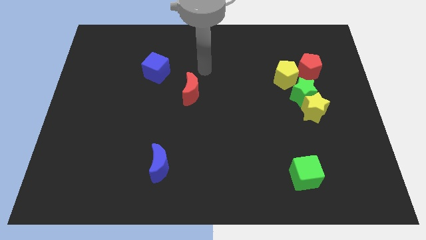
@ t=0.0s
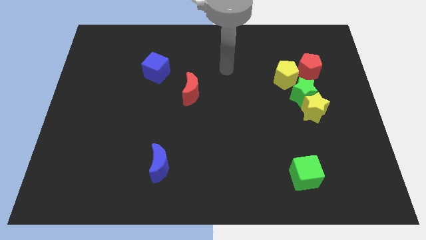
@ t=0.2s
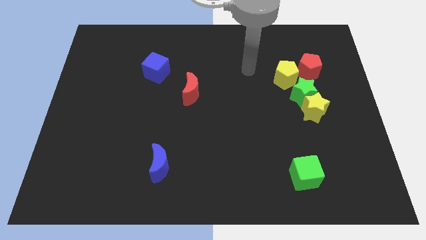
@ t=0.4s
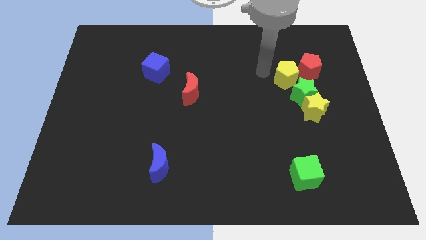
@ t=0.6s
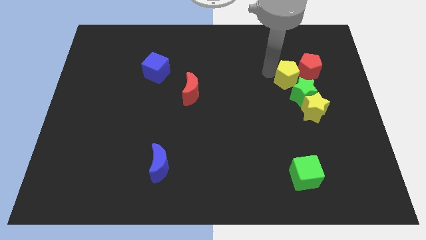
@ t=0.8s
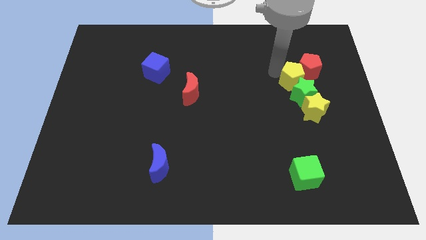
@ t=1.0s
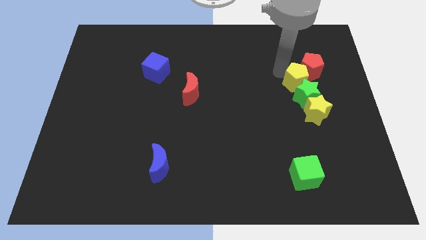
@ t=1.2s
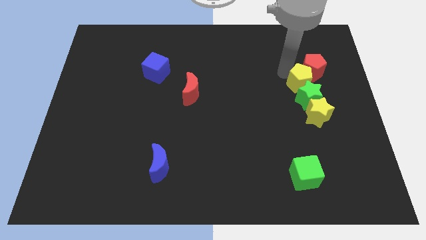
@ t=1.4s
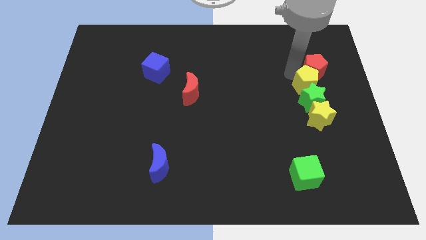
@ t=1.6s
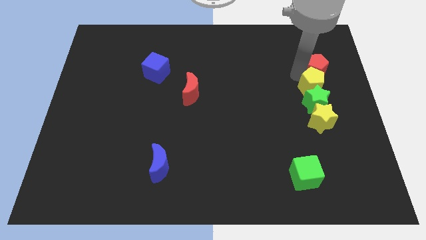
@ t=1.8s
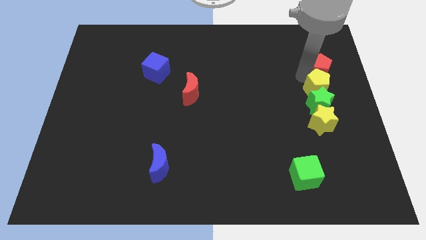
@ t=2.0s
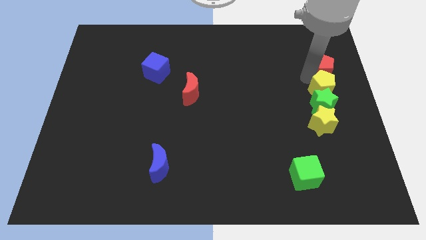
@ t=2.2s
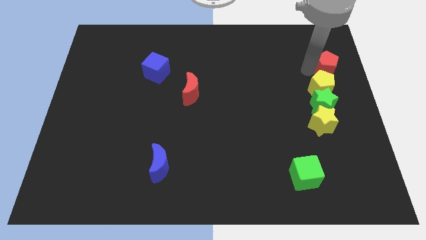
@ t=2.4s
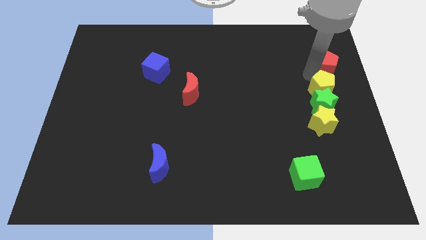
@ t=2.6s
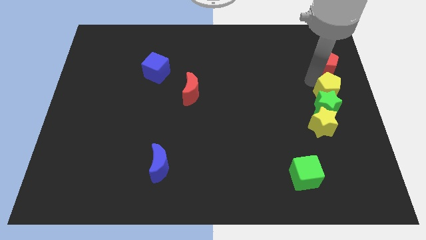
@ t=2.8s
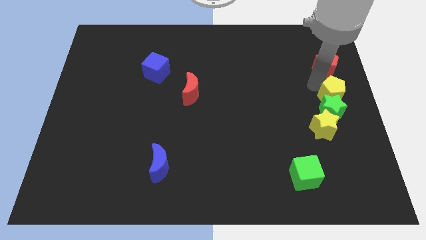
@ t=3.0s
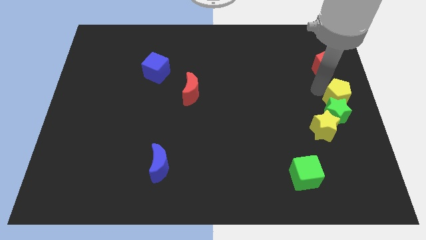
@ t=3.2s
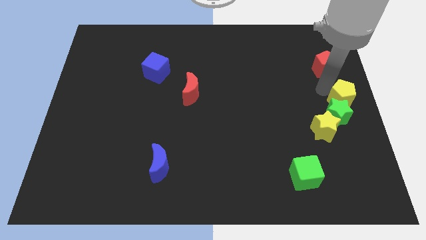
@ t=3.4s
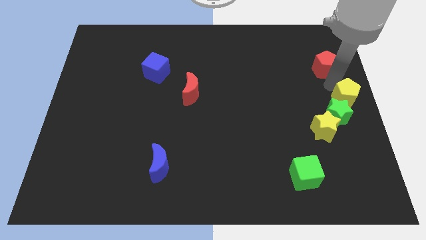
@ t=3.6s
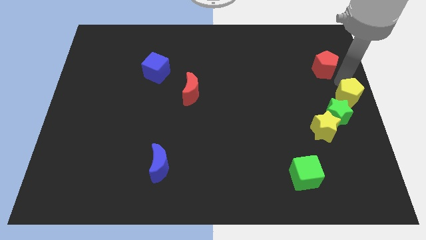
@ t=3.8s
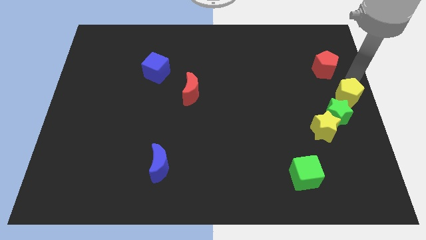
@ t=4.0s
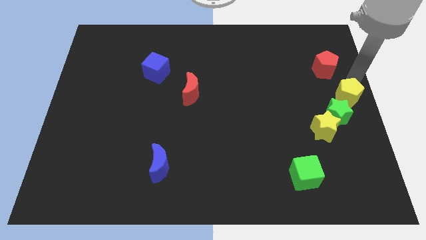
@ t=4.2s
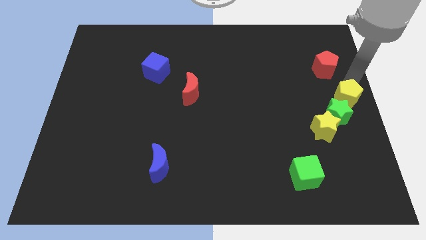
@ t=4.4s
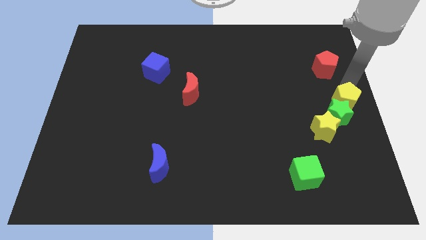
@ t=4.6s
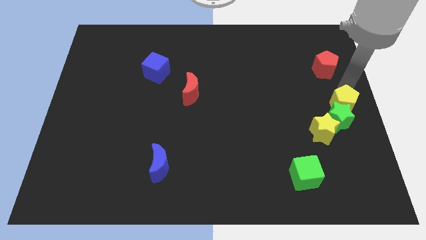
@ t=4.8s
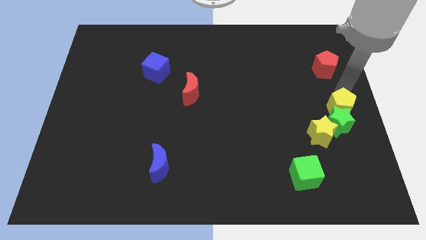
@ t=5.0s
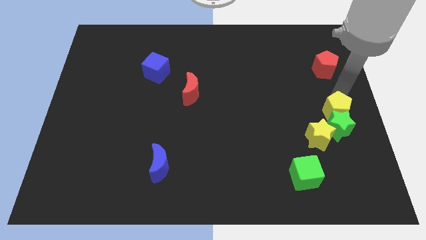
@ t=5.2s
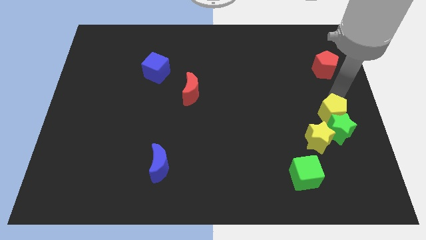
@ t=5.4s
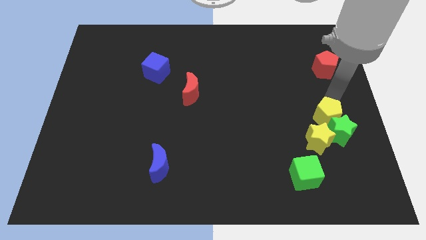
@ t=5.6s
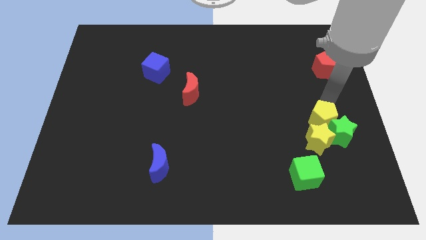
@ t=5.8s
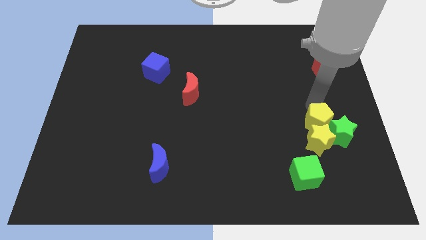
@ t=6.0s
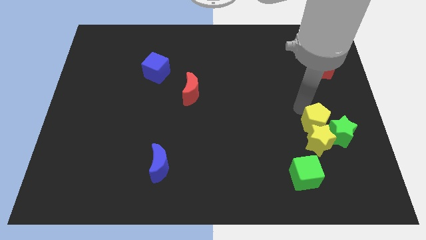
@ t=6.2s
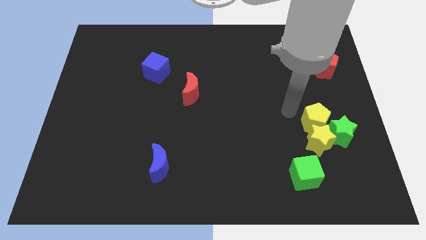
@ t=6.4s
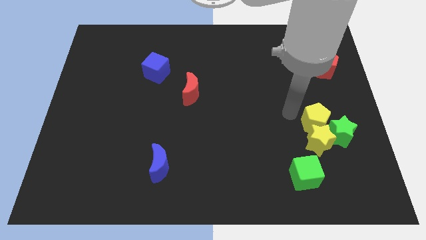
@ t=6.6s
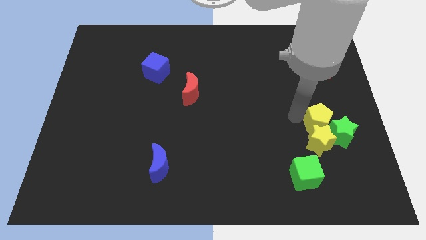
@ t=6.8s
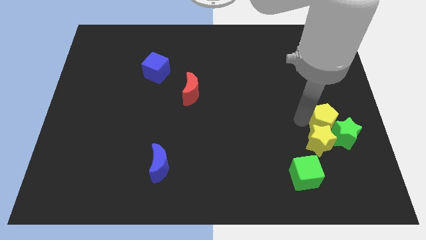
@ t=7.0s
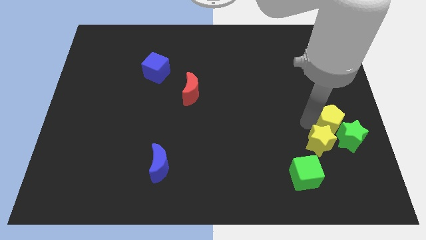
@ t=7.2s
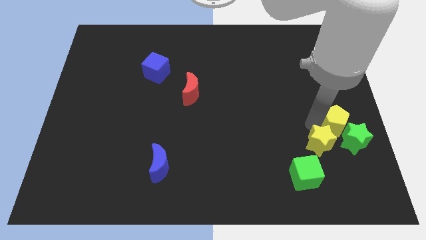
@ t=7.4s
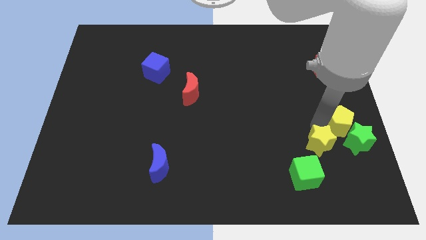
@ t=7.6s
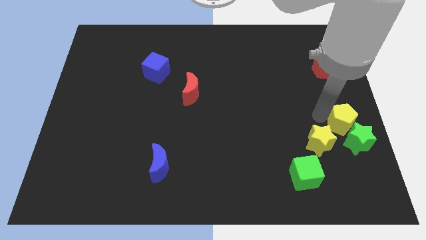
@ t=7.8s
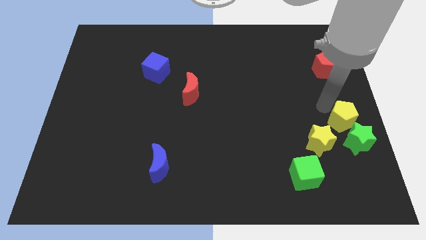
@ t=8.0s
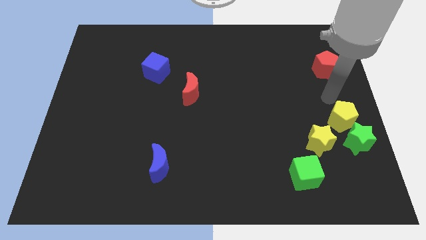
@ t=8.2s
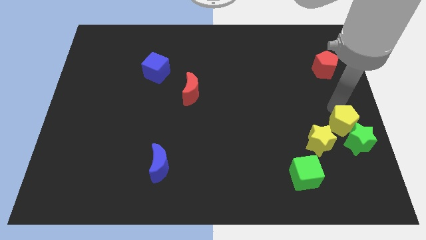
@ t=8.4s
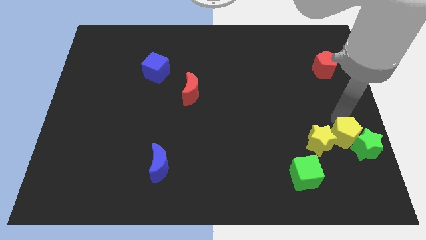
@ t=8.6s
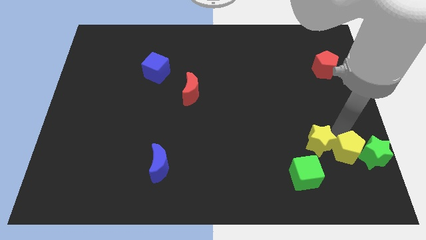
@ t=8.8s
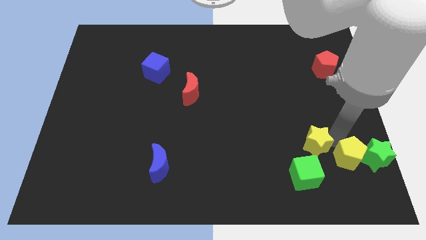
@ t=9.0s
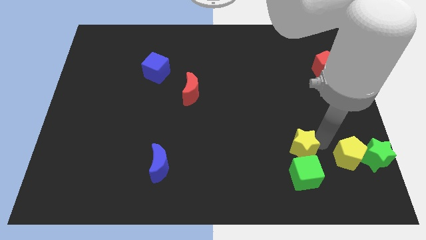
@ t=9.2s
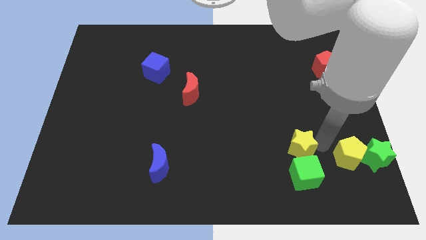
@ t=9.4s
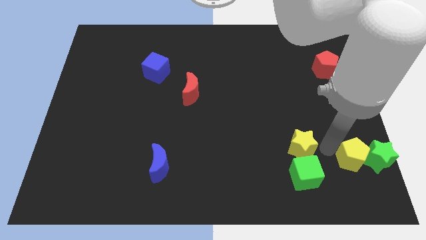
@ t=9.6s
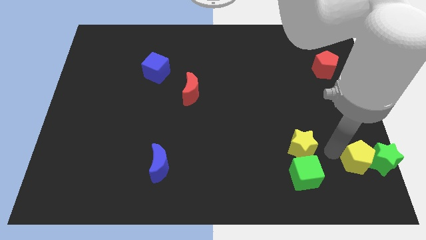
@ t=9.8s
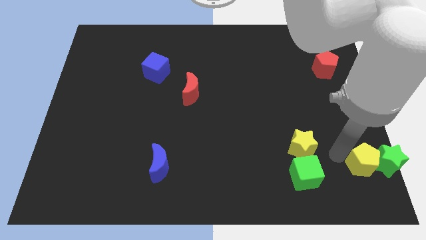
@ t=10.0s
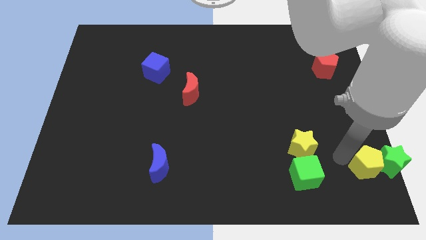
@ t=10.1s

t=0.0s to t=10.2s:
move the yellow pentagon to the lower right corner

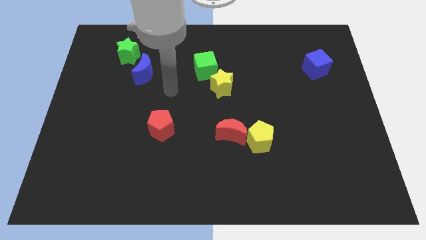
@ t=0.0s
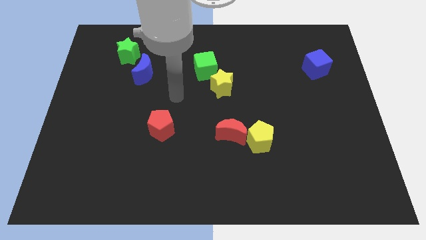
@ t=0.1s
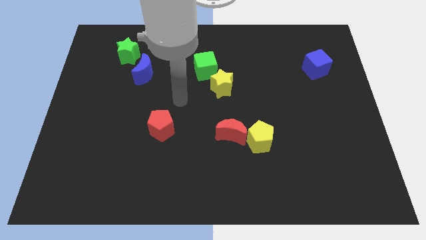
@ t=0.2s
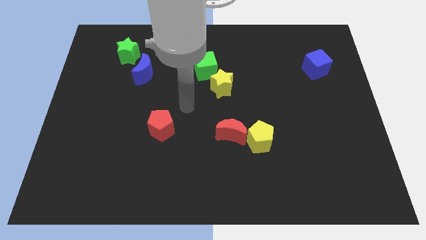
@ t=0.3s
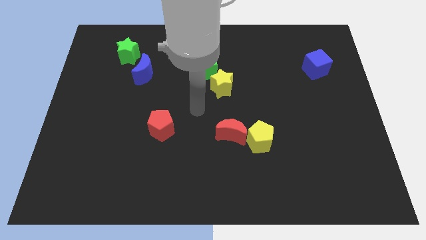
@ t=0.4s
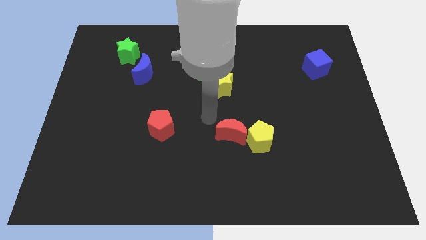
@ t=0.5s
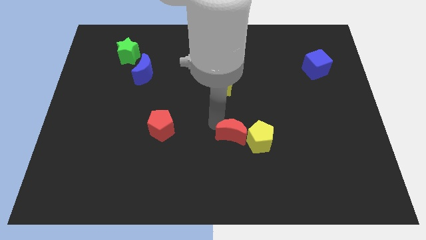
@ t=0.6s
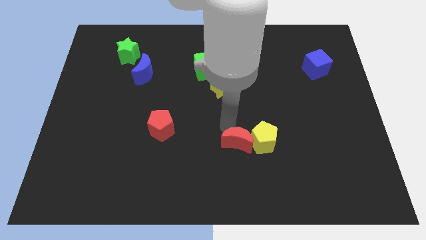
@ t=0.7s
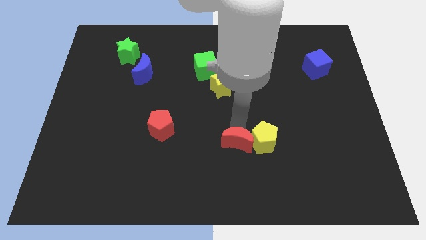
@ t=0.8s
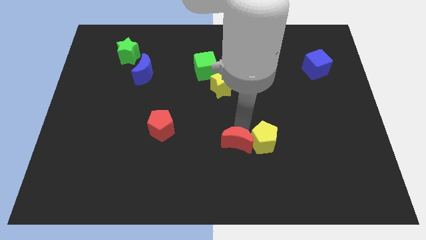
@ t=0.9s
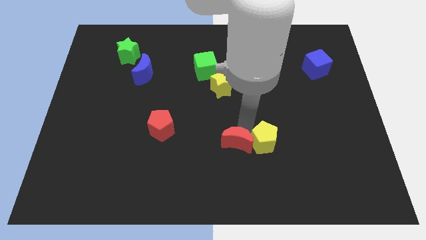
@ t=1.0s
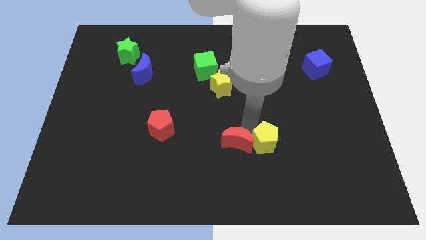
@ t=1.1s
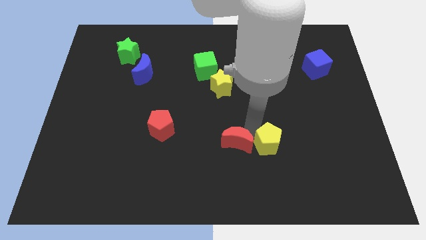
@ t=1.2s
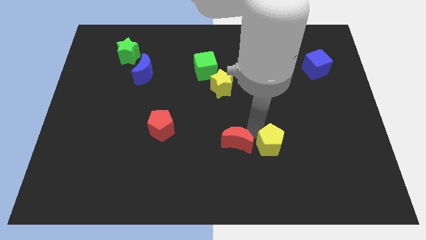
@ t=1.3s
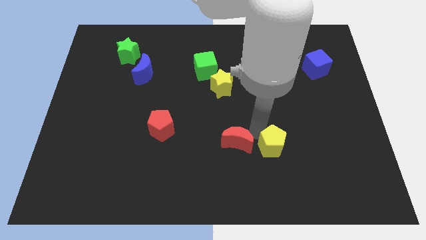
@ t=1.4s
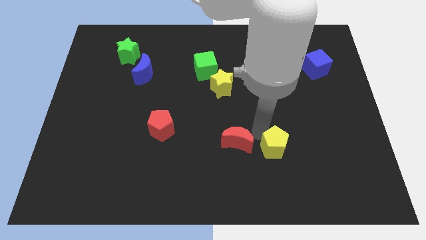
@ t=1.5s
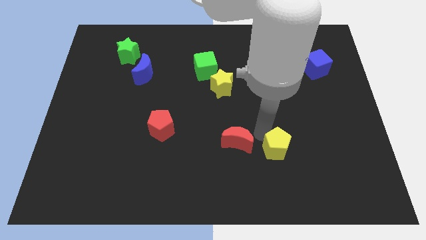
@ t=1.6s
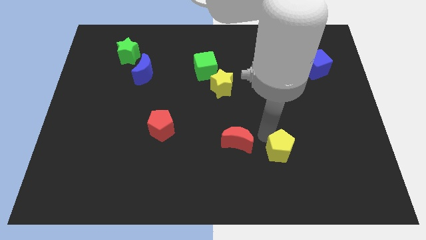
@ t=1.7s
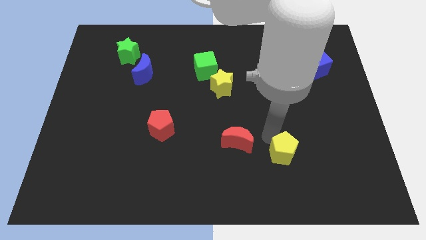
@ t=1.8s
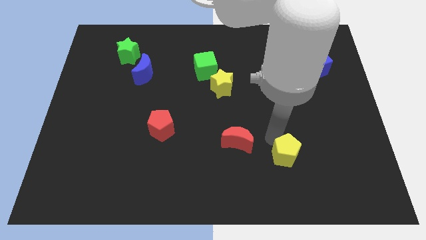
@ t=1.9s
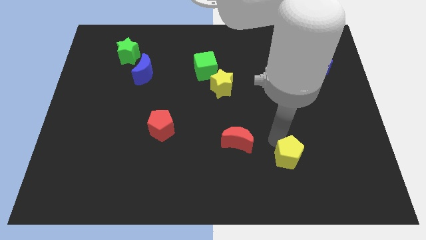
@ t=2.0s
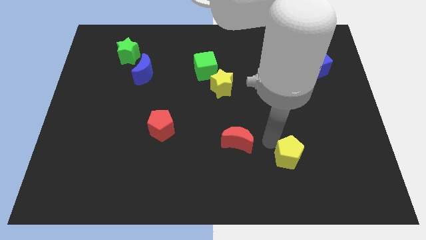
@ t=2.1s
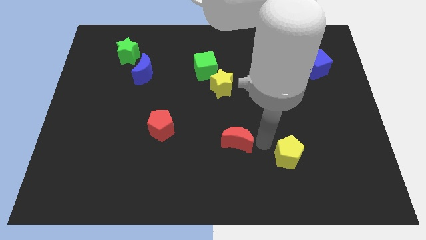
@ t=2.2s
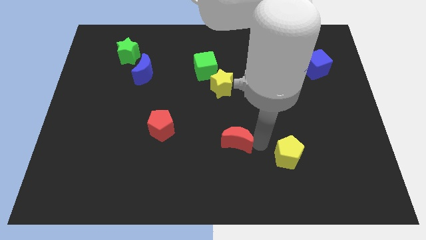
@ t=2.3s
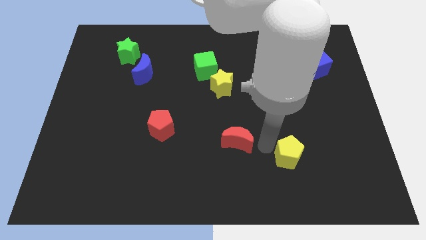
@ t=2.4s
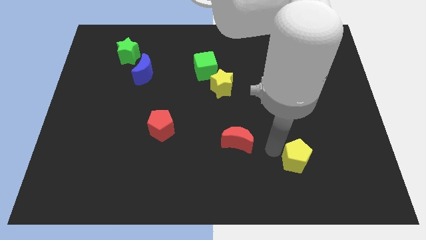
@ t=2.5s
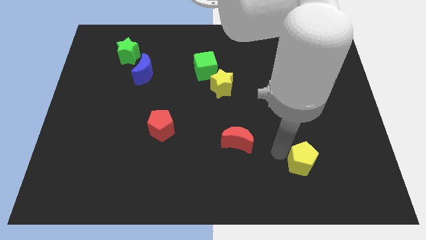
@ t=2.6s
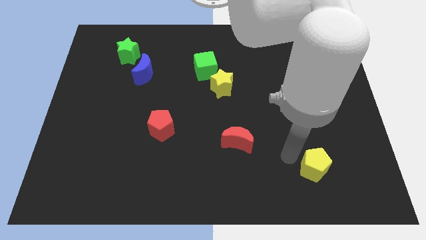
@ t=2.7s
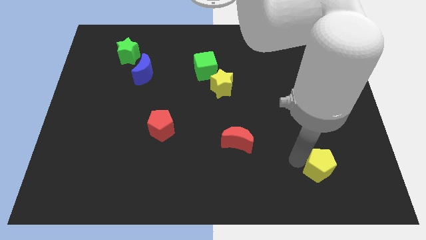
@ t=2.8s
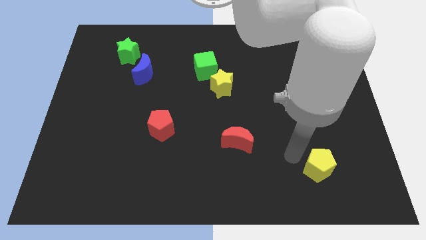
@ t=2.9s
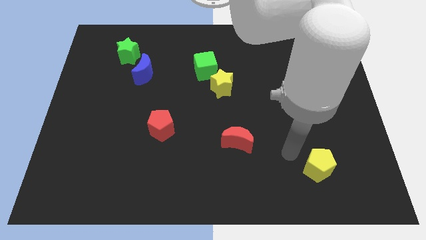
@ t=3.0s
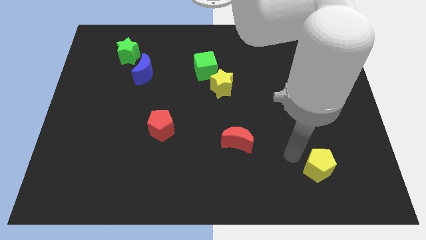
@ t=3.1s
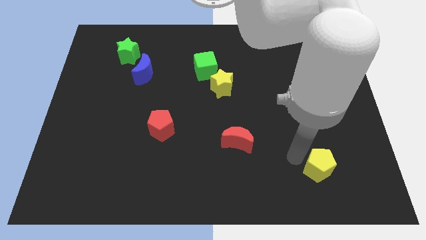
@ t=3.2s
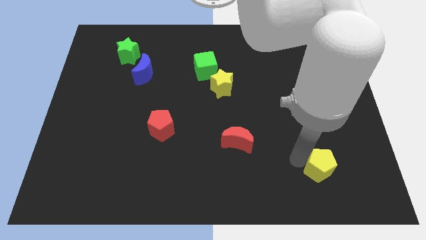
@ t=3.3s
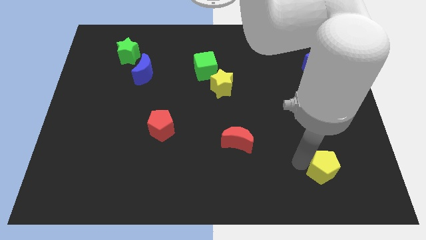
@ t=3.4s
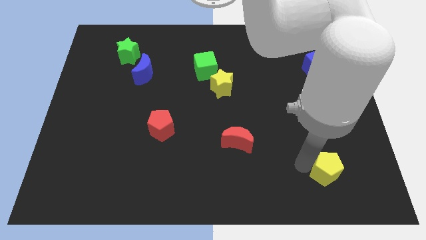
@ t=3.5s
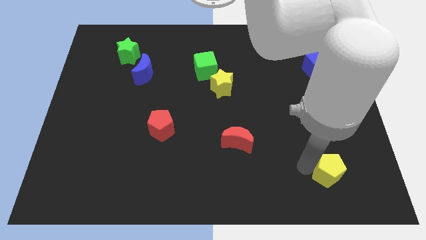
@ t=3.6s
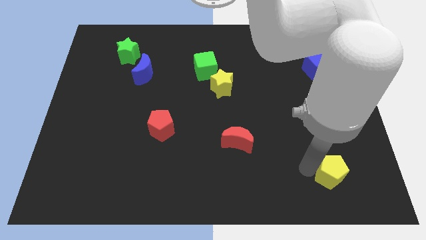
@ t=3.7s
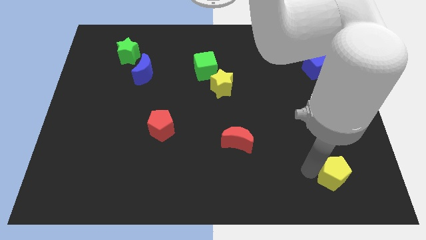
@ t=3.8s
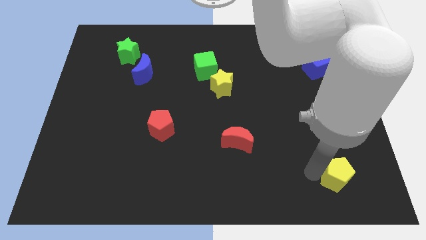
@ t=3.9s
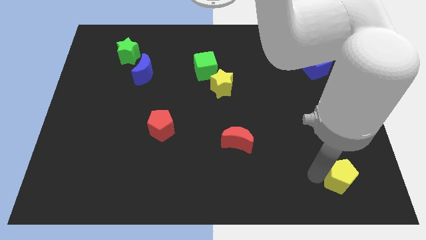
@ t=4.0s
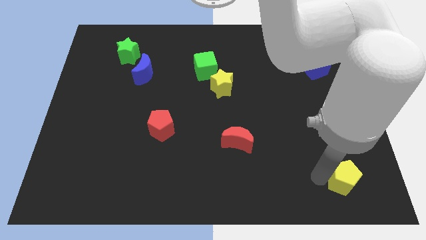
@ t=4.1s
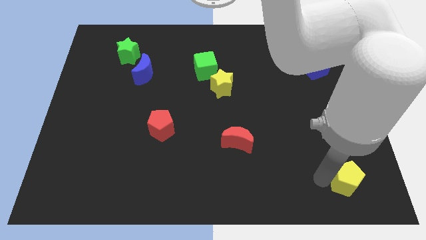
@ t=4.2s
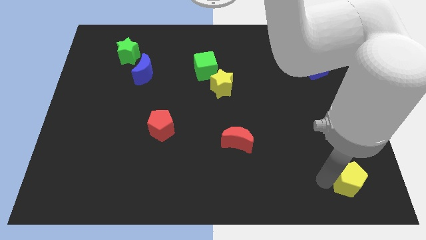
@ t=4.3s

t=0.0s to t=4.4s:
push the yellow pentagon to the bottom right
